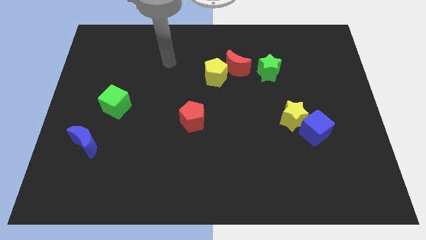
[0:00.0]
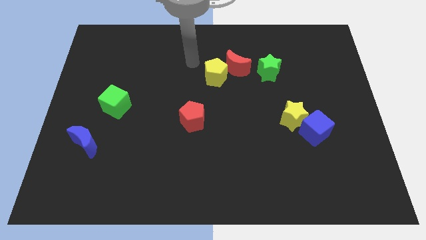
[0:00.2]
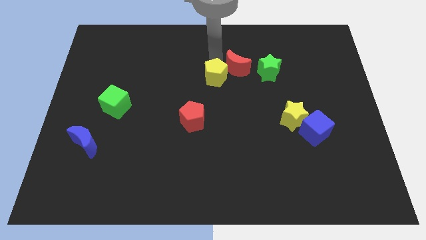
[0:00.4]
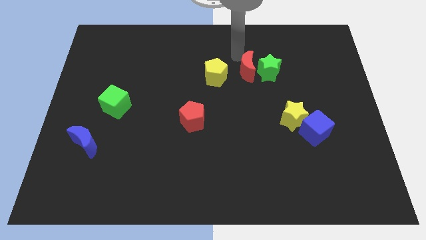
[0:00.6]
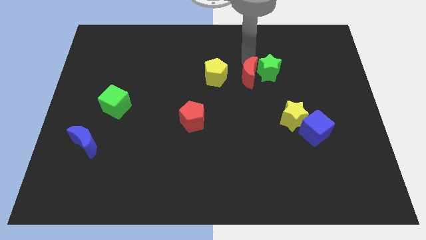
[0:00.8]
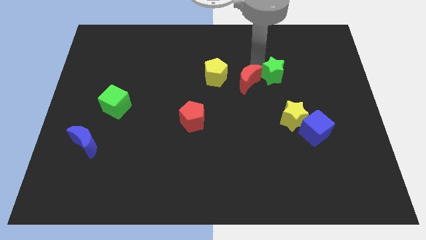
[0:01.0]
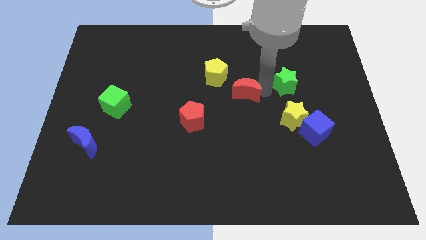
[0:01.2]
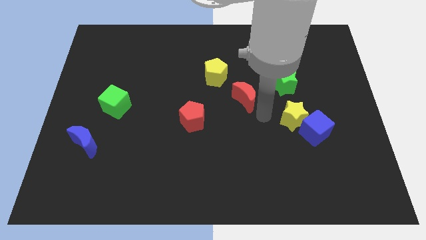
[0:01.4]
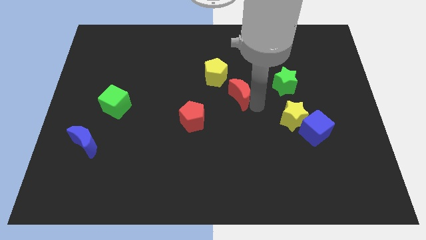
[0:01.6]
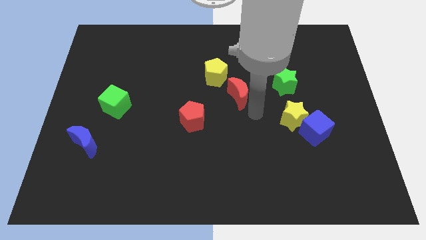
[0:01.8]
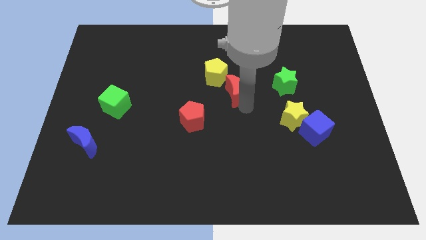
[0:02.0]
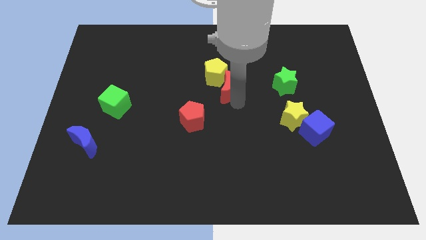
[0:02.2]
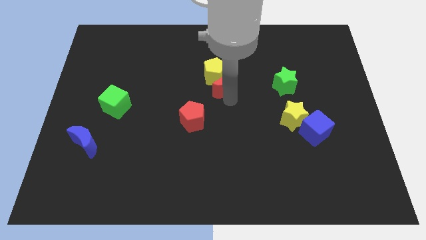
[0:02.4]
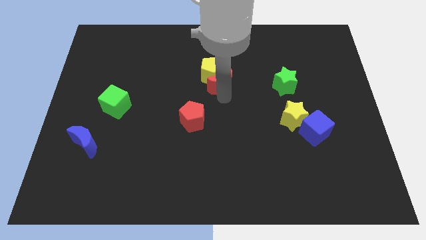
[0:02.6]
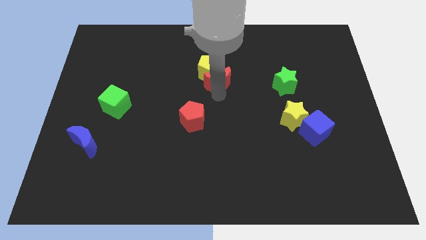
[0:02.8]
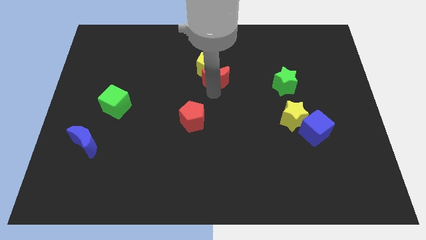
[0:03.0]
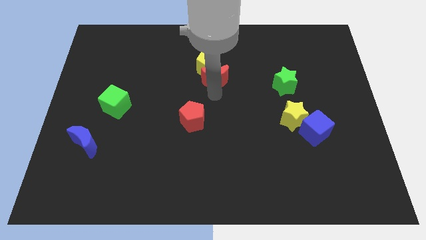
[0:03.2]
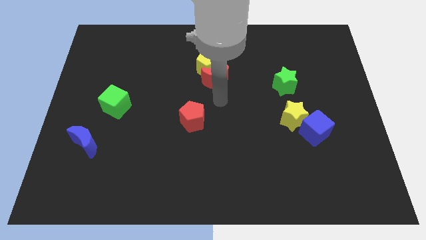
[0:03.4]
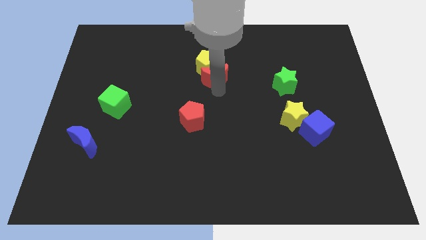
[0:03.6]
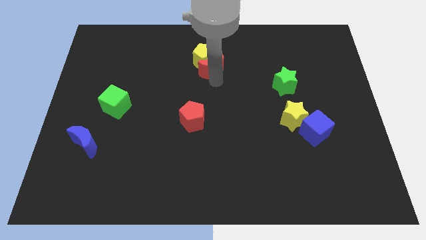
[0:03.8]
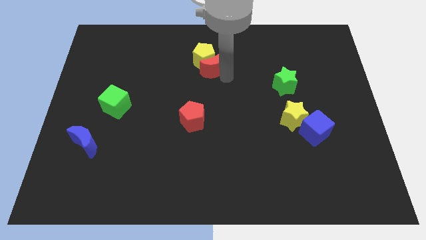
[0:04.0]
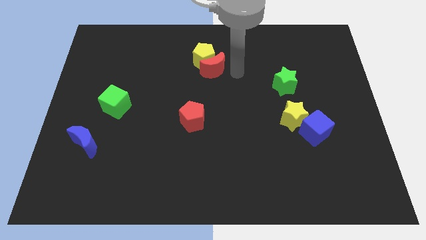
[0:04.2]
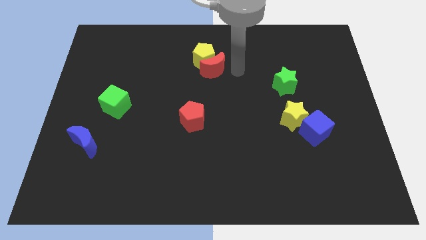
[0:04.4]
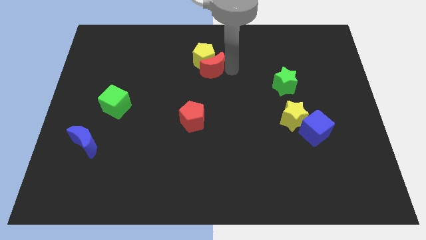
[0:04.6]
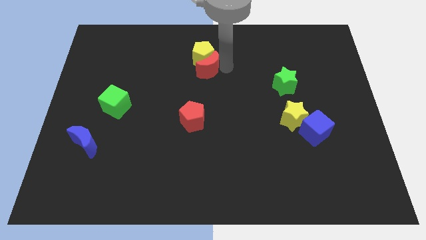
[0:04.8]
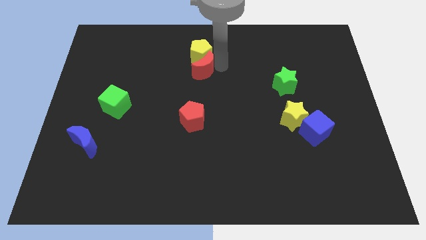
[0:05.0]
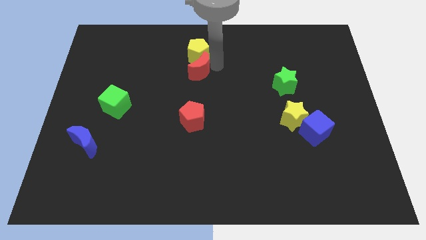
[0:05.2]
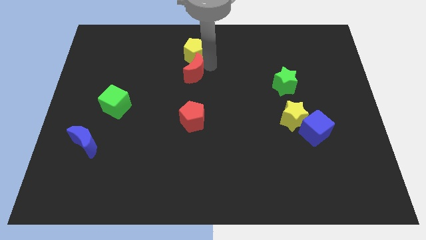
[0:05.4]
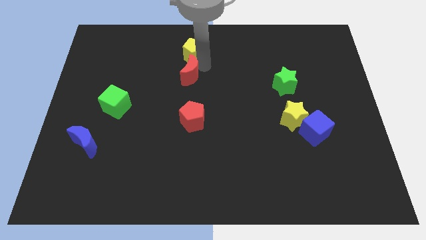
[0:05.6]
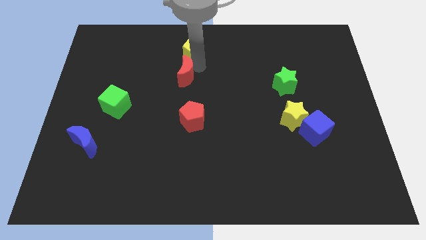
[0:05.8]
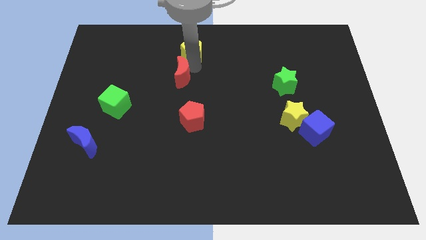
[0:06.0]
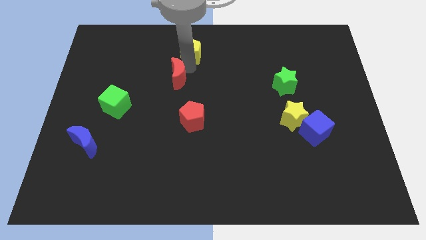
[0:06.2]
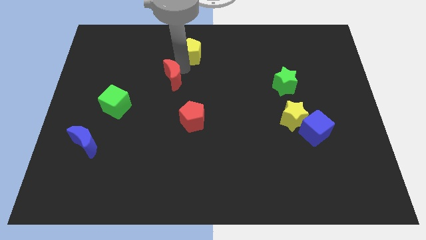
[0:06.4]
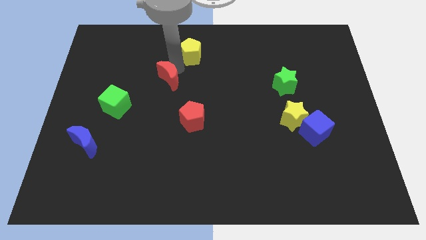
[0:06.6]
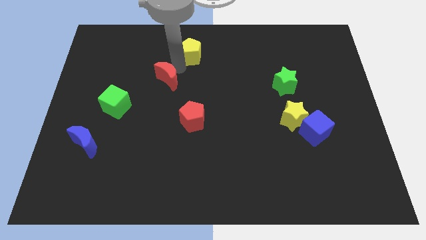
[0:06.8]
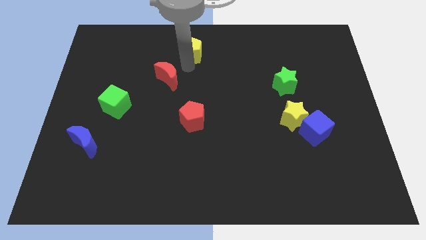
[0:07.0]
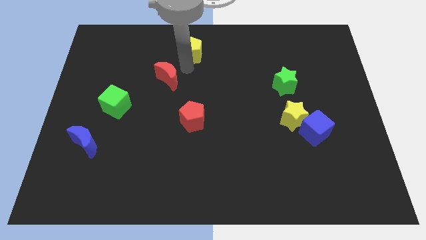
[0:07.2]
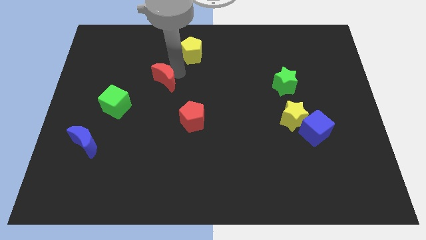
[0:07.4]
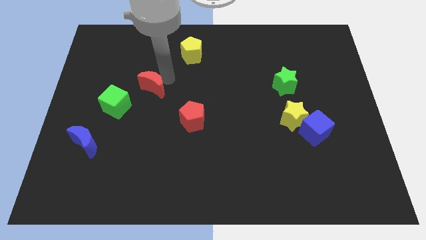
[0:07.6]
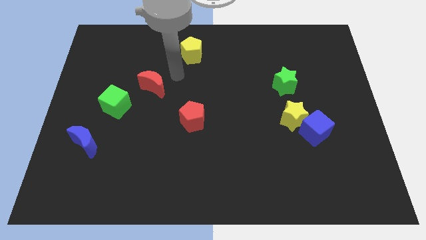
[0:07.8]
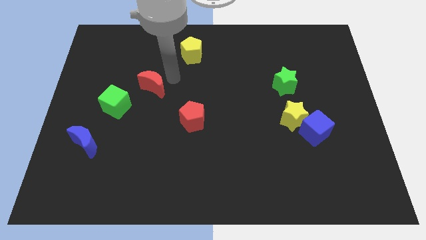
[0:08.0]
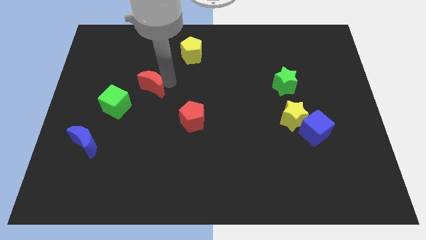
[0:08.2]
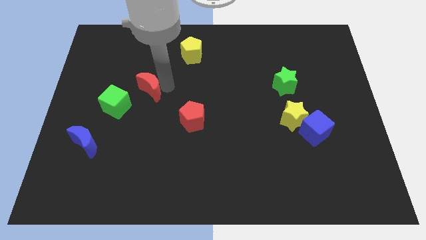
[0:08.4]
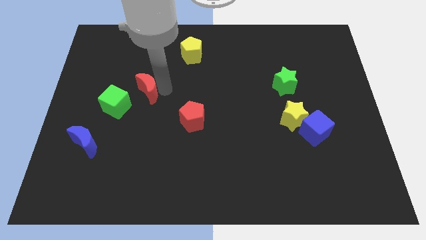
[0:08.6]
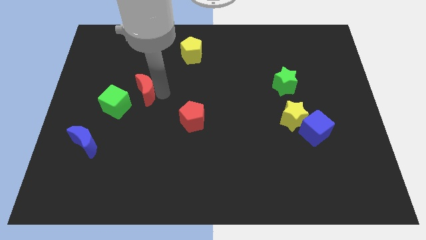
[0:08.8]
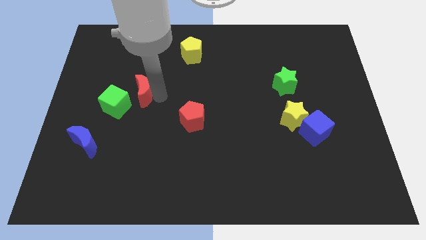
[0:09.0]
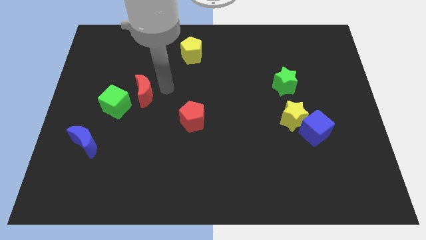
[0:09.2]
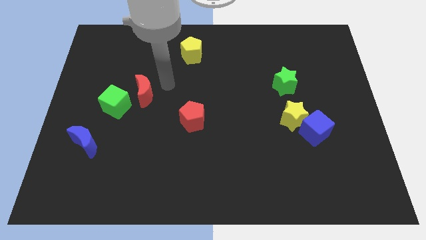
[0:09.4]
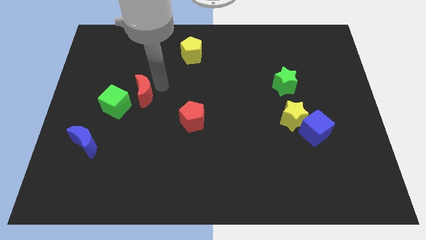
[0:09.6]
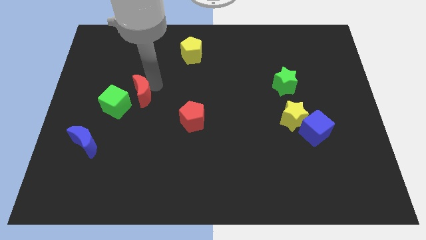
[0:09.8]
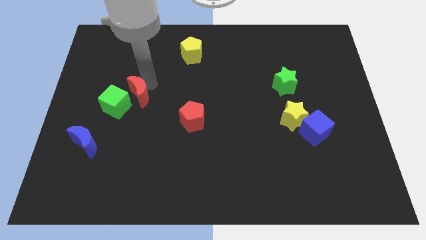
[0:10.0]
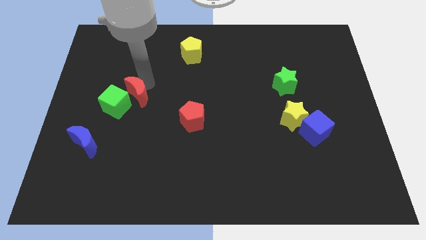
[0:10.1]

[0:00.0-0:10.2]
put the red moon towards the green cube

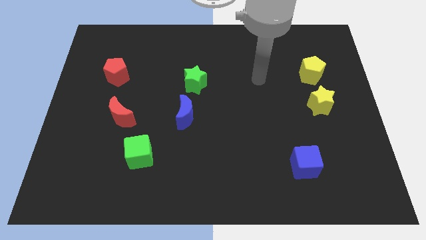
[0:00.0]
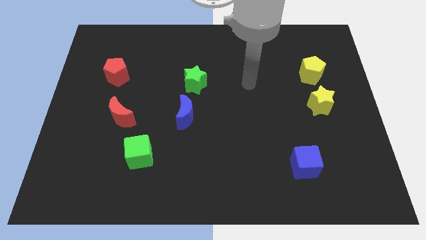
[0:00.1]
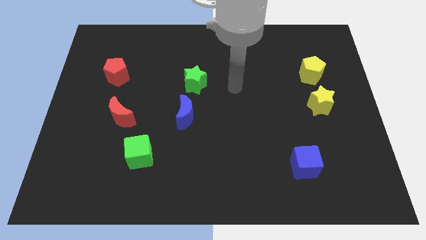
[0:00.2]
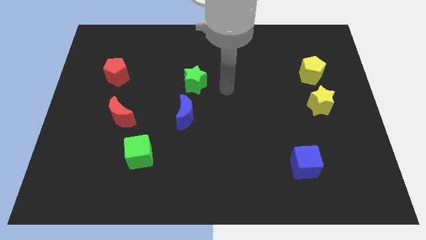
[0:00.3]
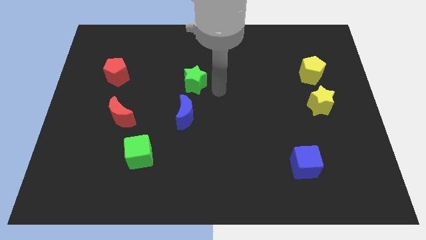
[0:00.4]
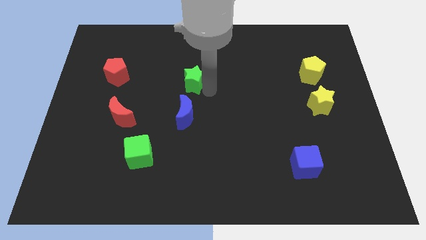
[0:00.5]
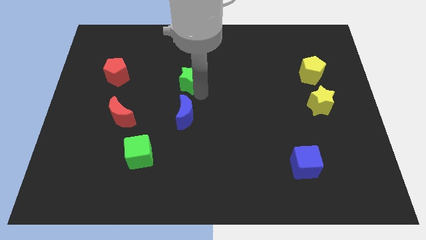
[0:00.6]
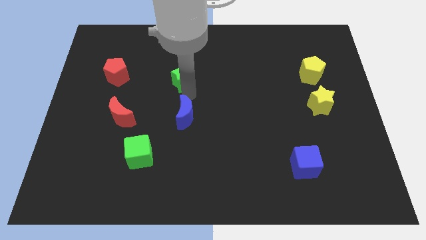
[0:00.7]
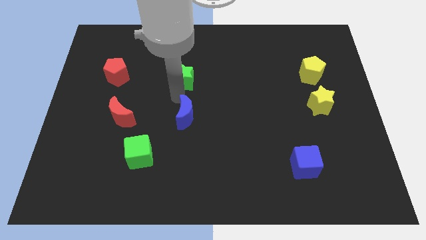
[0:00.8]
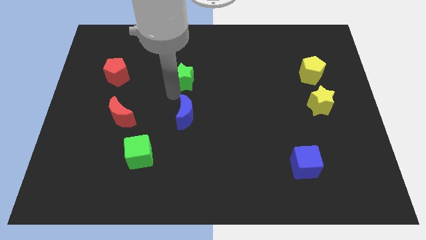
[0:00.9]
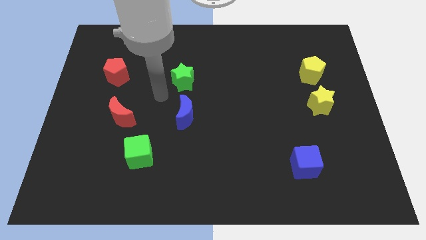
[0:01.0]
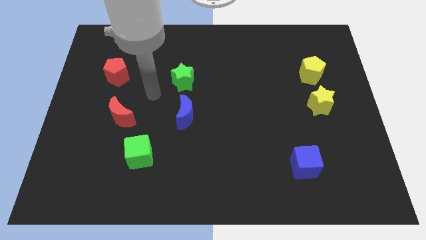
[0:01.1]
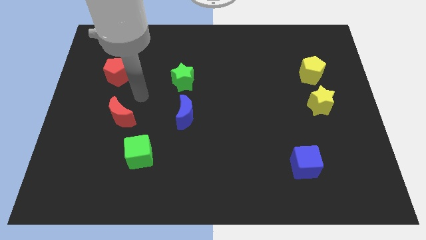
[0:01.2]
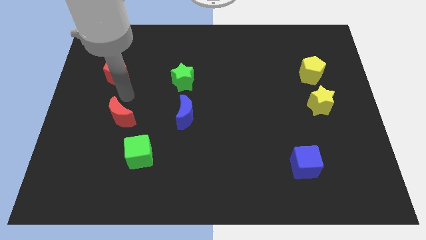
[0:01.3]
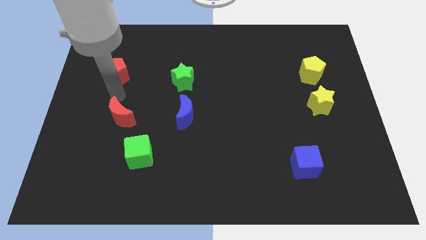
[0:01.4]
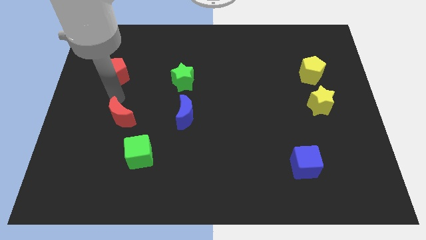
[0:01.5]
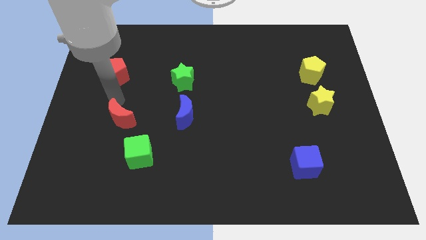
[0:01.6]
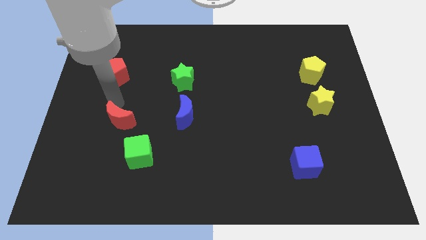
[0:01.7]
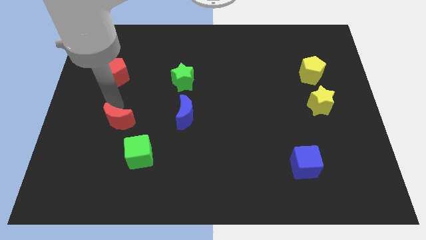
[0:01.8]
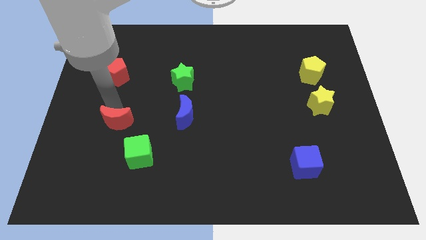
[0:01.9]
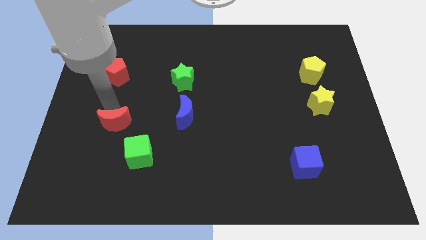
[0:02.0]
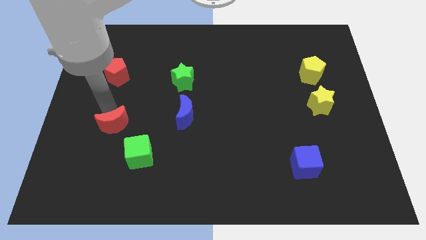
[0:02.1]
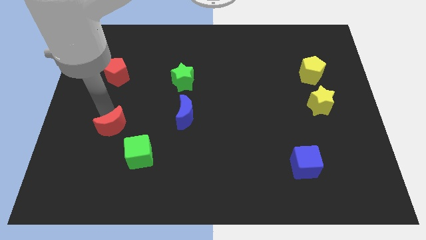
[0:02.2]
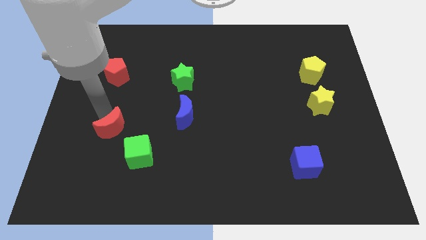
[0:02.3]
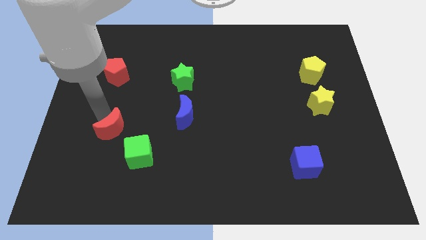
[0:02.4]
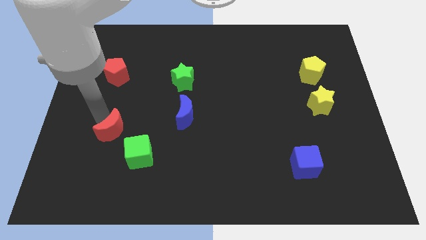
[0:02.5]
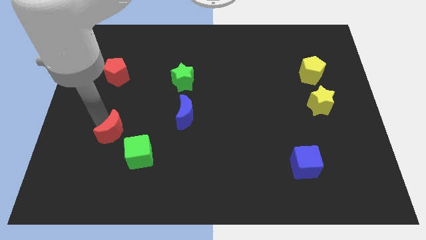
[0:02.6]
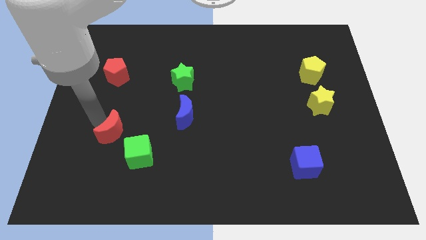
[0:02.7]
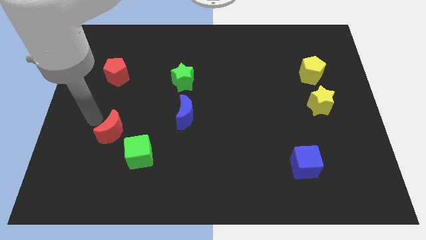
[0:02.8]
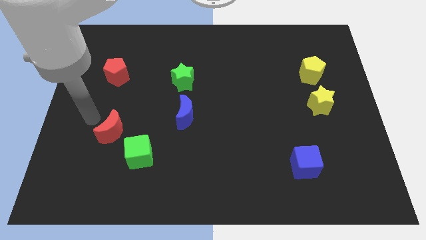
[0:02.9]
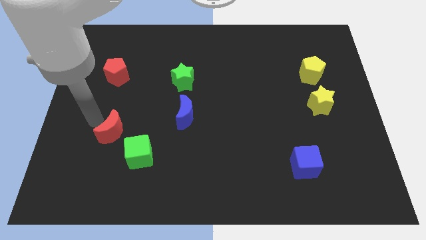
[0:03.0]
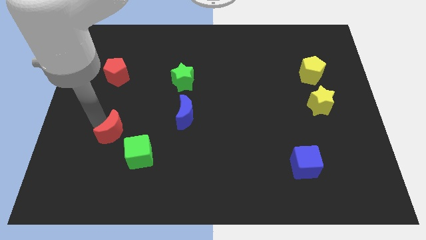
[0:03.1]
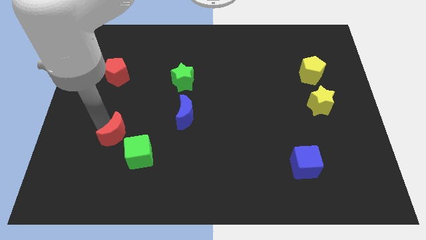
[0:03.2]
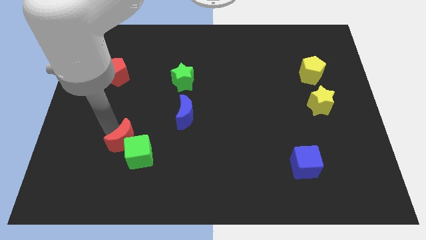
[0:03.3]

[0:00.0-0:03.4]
move the red moon towards the green cube
